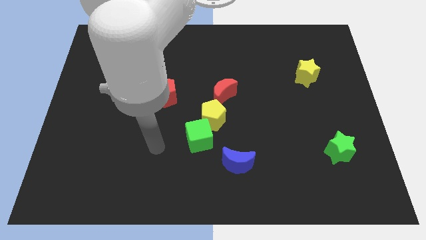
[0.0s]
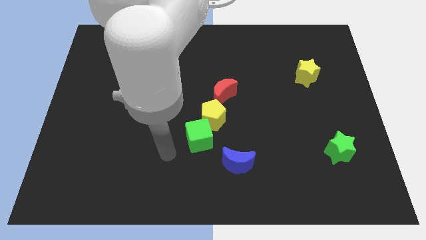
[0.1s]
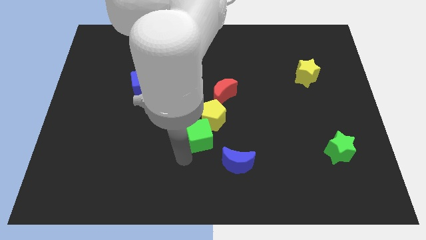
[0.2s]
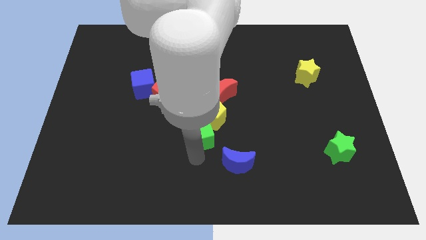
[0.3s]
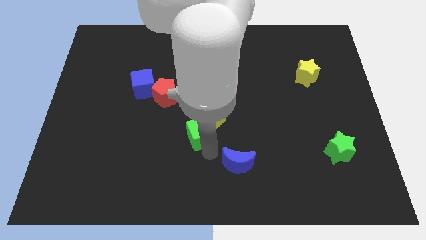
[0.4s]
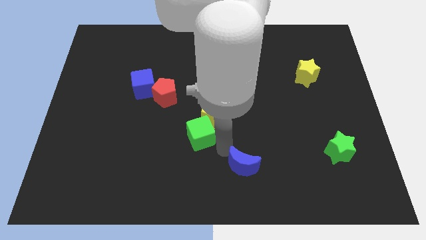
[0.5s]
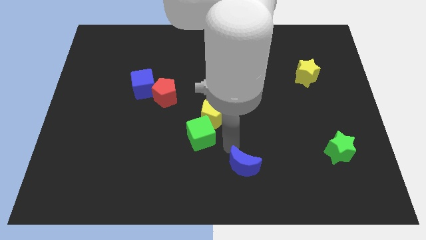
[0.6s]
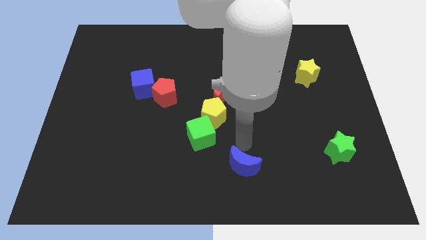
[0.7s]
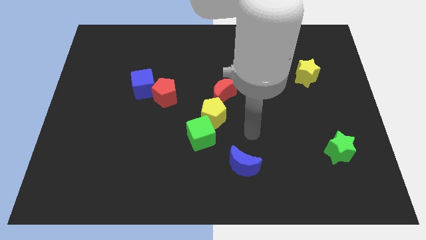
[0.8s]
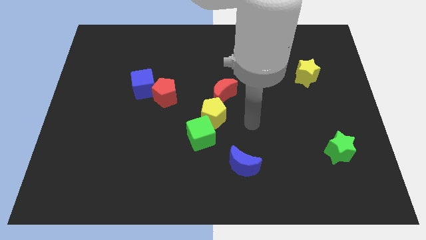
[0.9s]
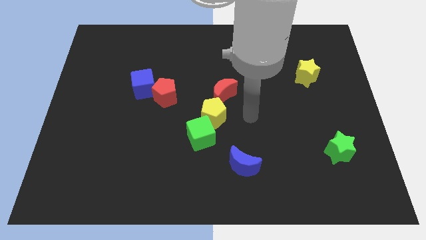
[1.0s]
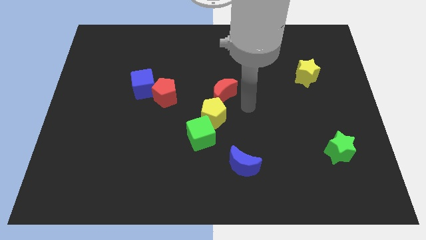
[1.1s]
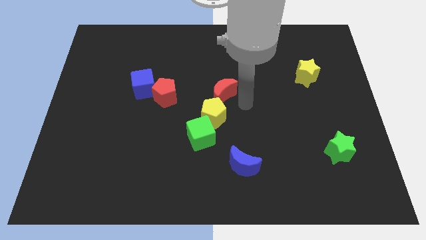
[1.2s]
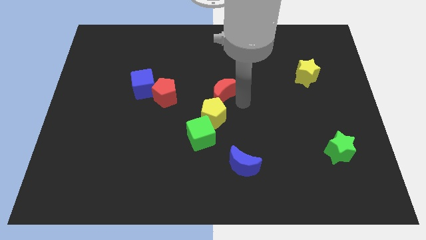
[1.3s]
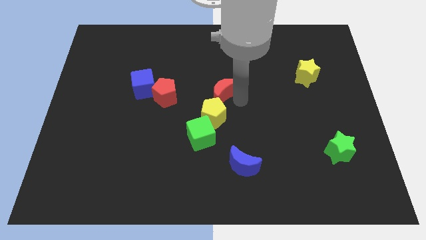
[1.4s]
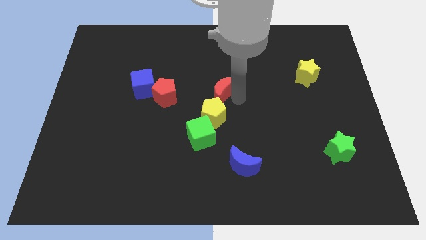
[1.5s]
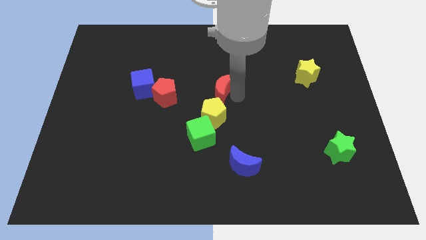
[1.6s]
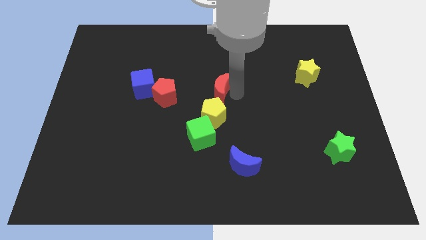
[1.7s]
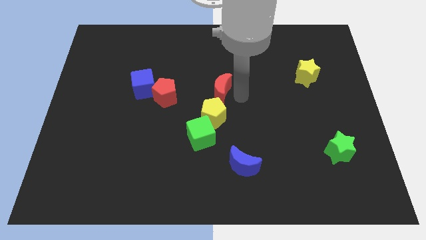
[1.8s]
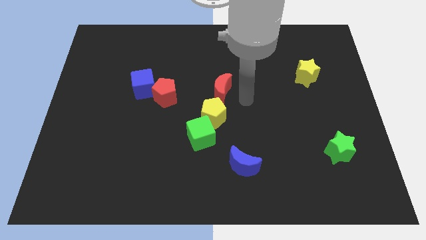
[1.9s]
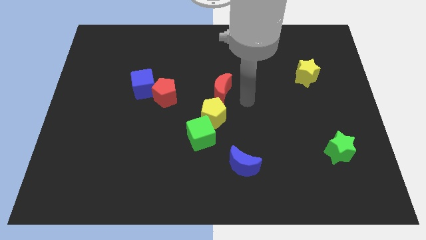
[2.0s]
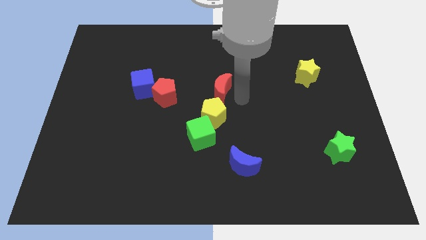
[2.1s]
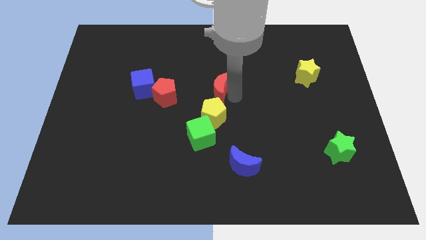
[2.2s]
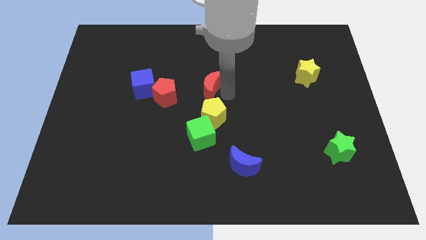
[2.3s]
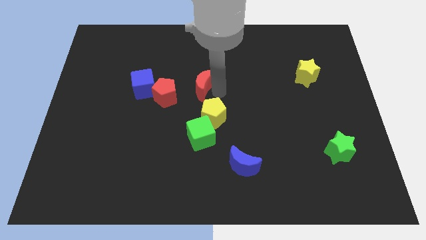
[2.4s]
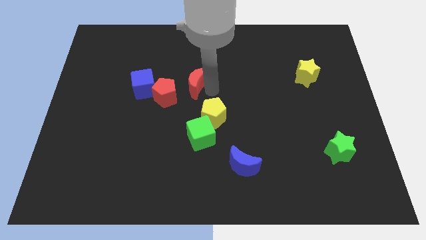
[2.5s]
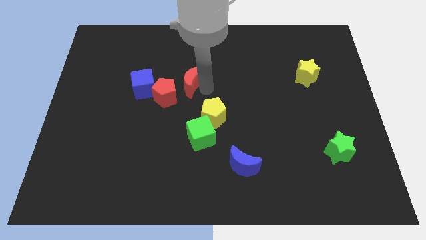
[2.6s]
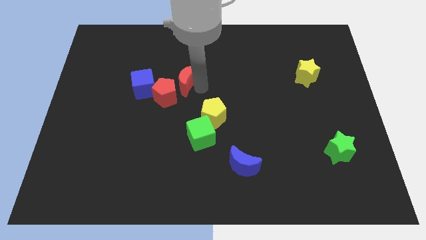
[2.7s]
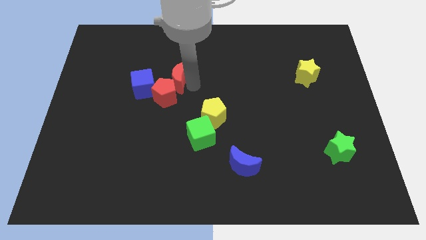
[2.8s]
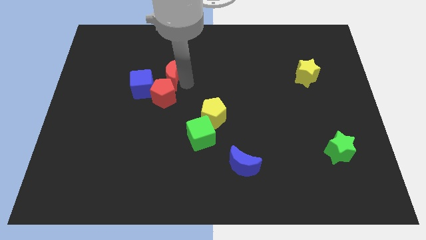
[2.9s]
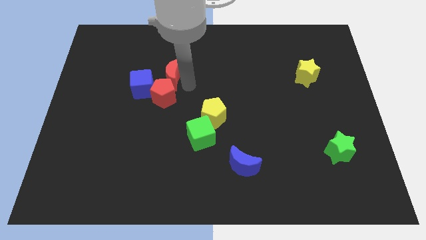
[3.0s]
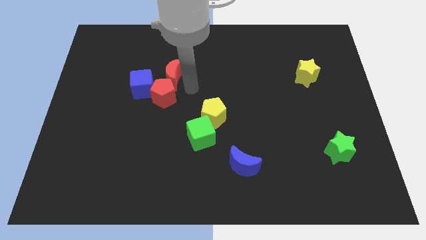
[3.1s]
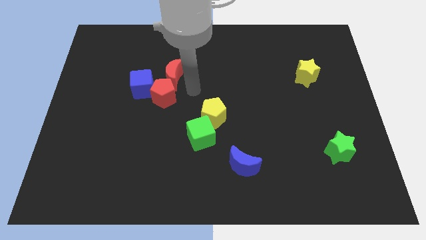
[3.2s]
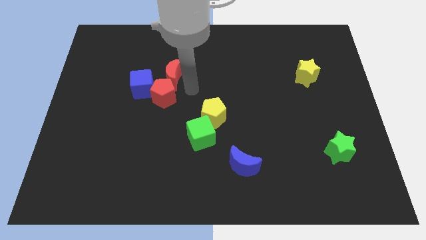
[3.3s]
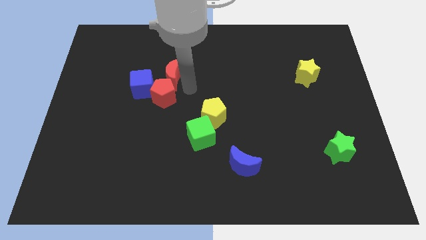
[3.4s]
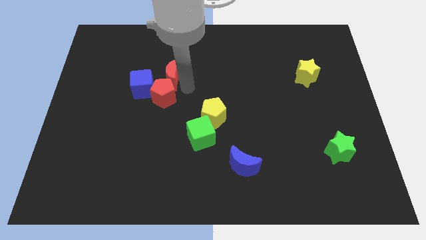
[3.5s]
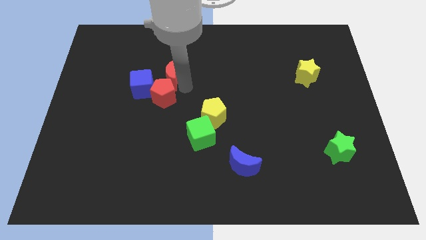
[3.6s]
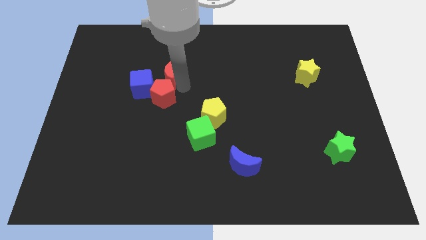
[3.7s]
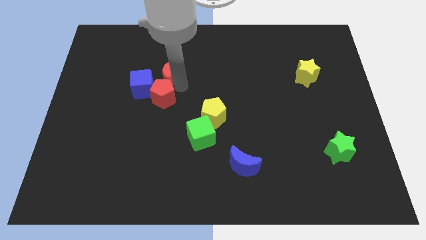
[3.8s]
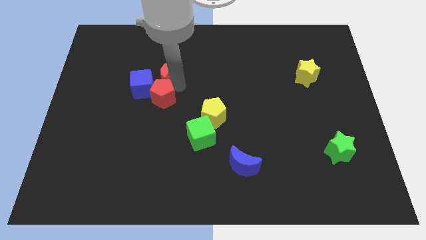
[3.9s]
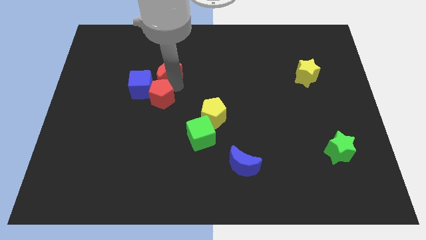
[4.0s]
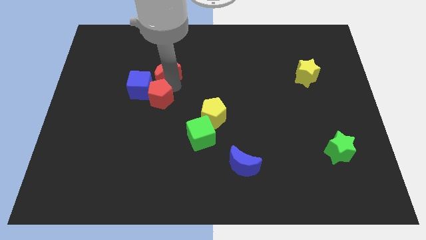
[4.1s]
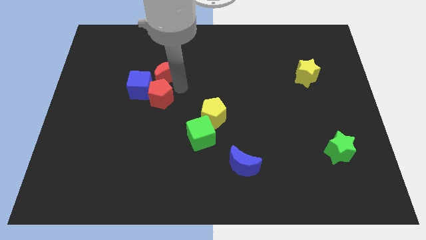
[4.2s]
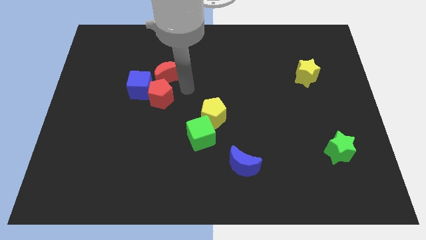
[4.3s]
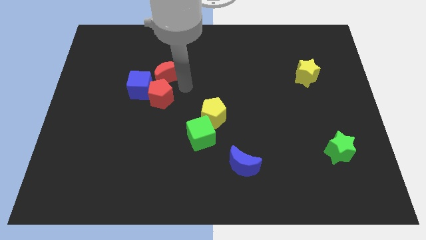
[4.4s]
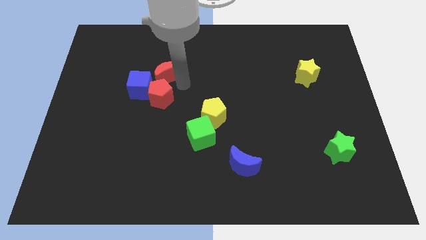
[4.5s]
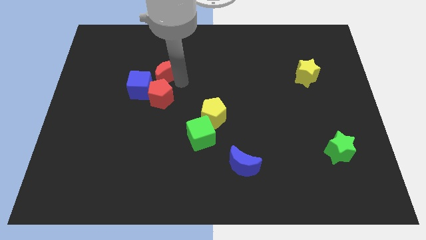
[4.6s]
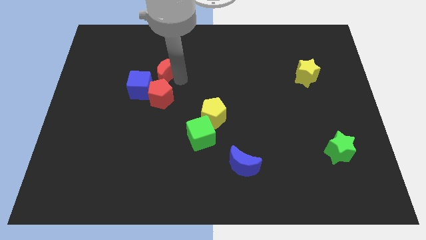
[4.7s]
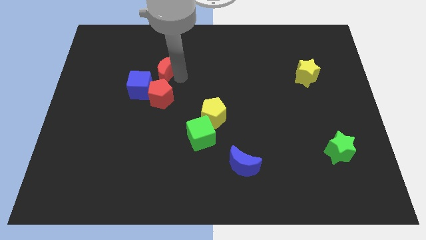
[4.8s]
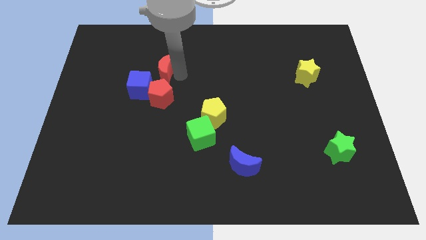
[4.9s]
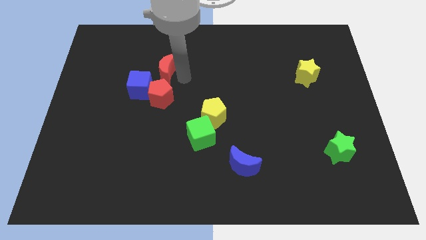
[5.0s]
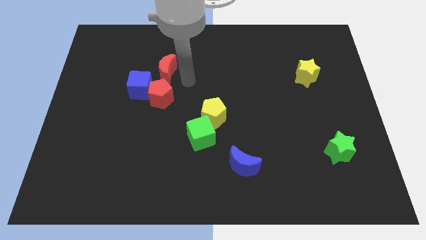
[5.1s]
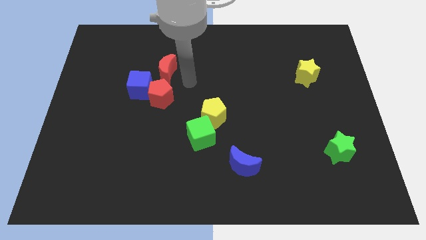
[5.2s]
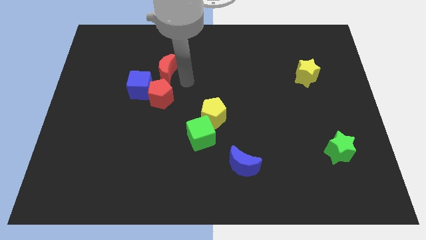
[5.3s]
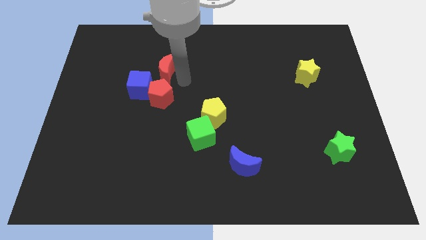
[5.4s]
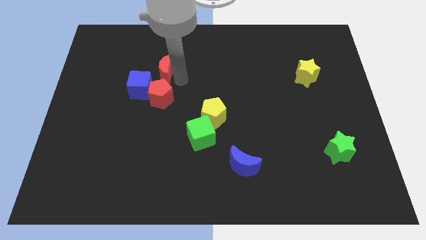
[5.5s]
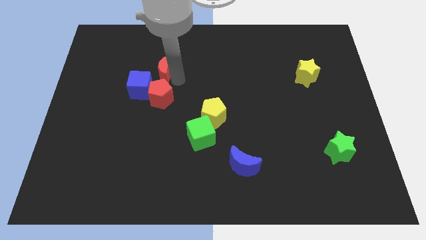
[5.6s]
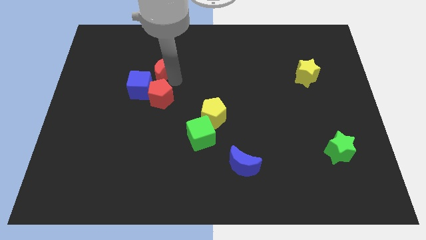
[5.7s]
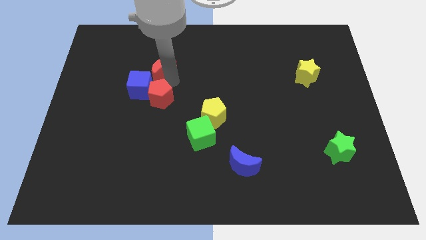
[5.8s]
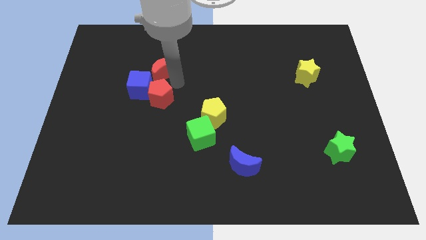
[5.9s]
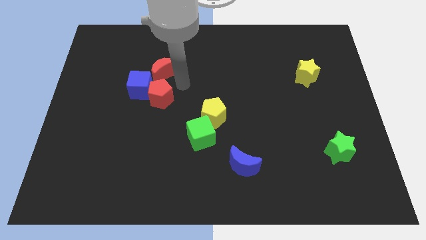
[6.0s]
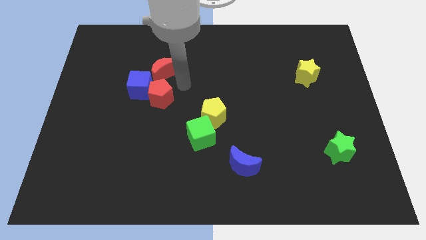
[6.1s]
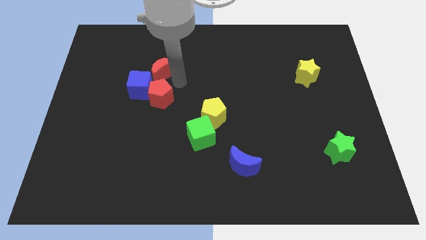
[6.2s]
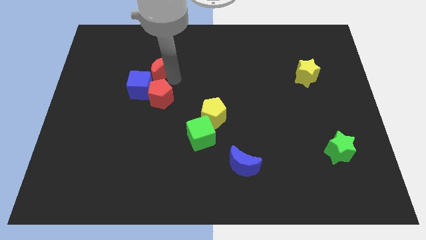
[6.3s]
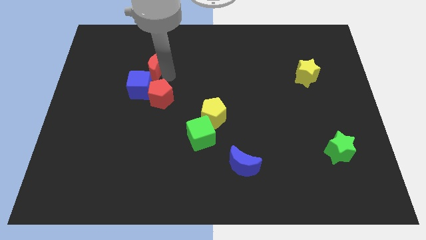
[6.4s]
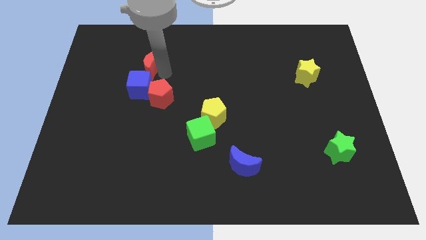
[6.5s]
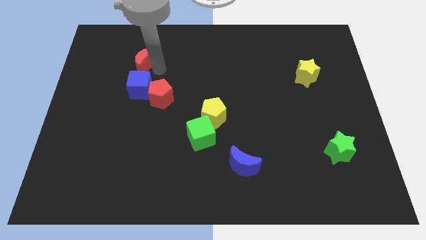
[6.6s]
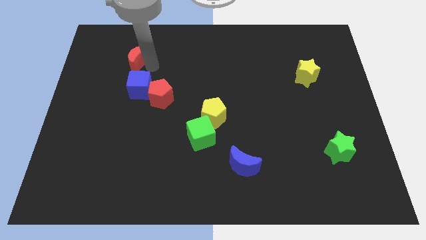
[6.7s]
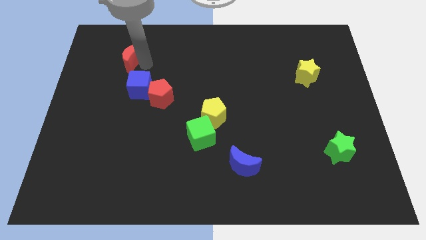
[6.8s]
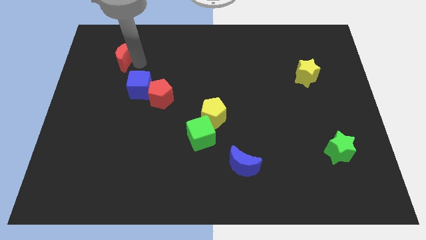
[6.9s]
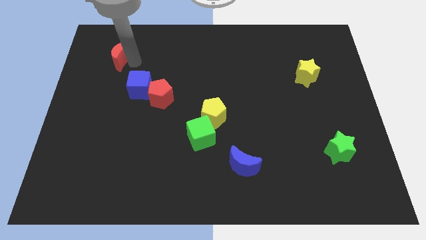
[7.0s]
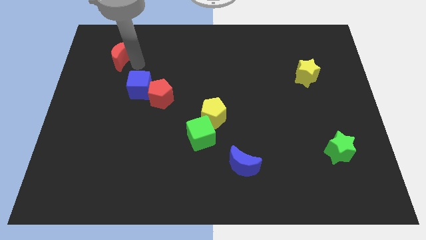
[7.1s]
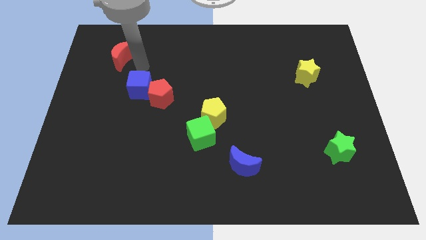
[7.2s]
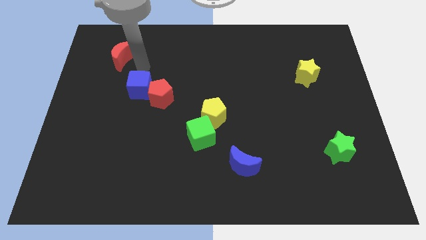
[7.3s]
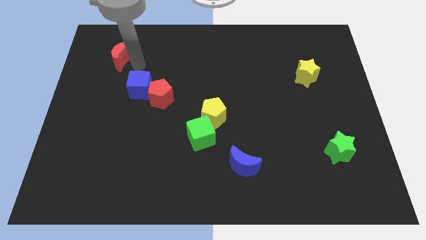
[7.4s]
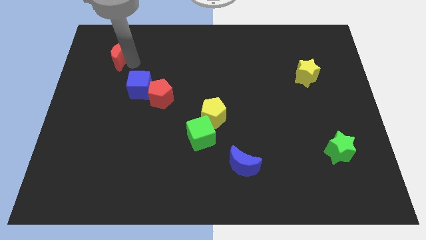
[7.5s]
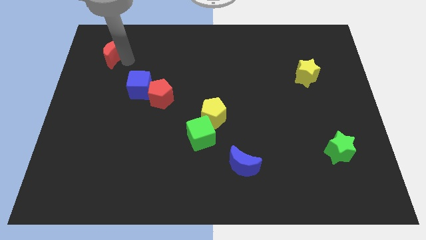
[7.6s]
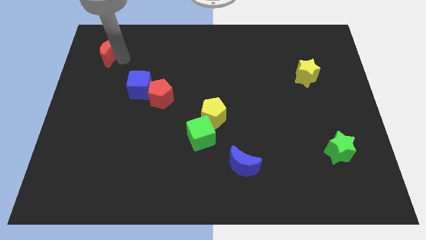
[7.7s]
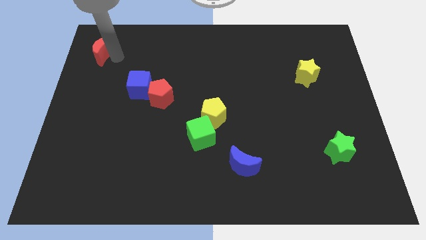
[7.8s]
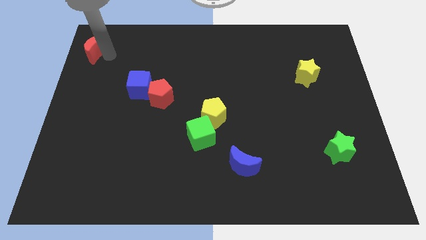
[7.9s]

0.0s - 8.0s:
put the red moon to the top left
